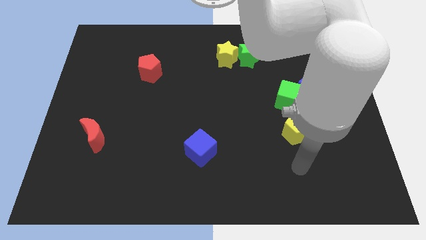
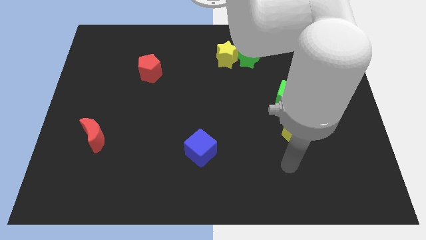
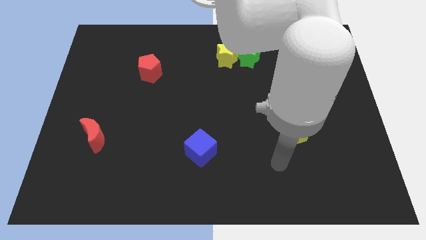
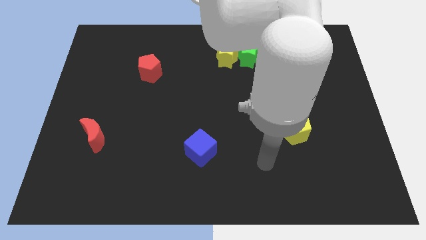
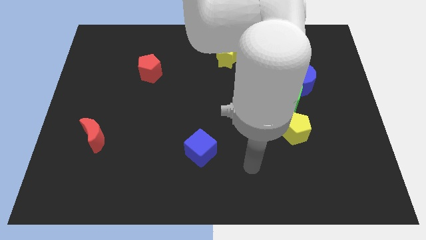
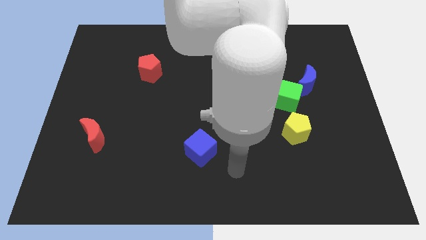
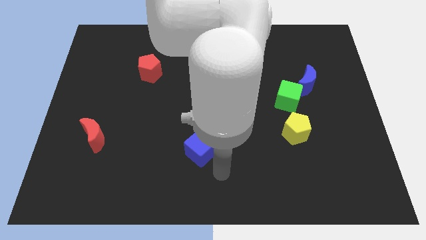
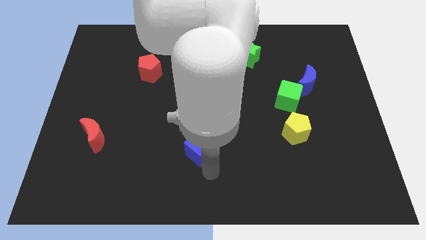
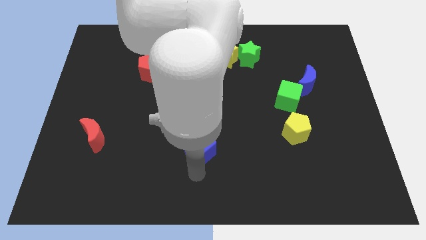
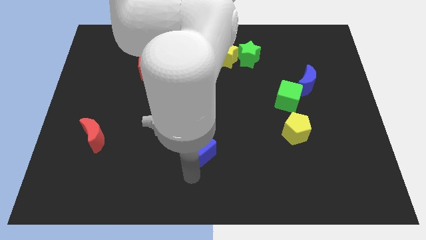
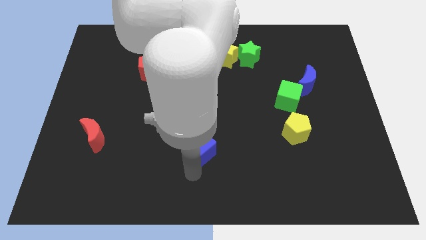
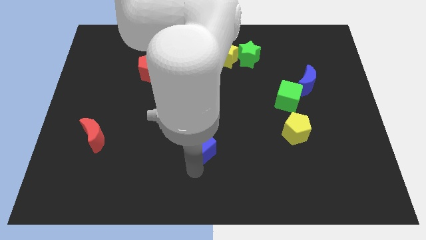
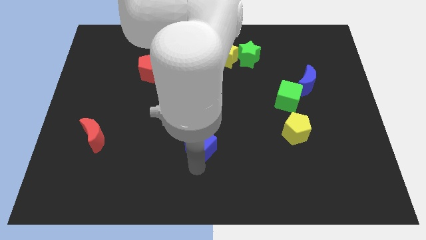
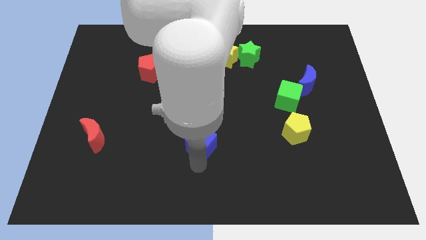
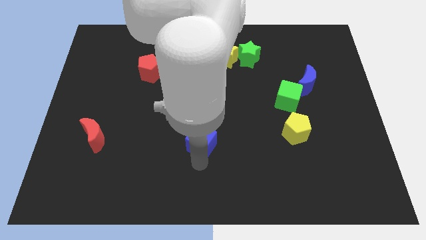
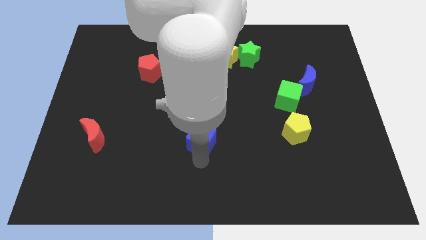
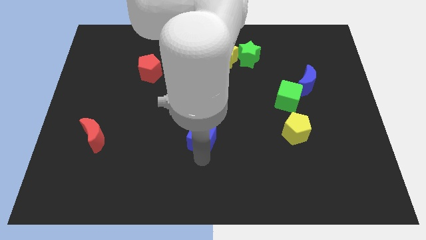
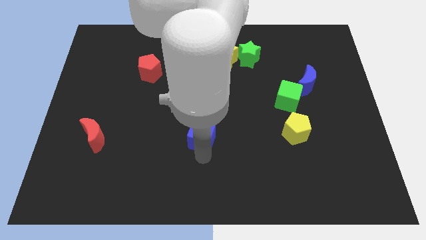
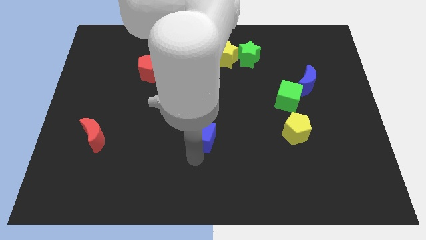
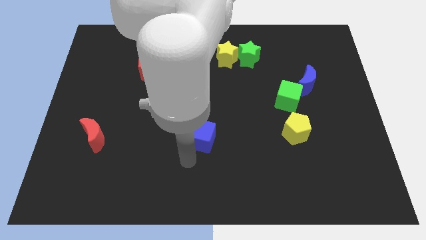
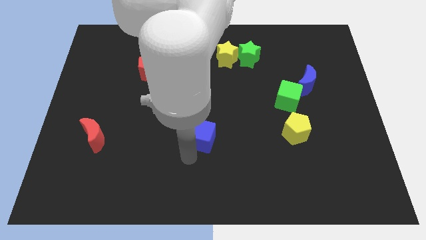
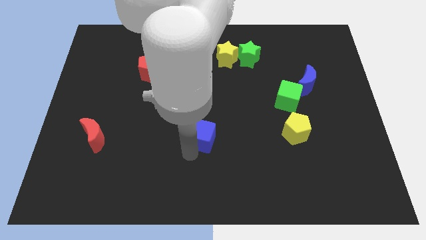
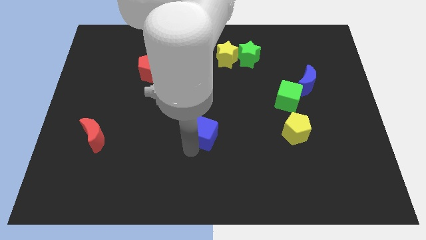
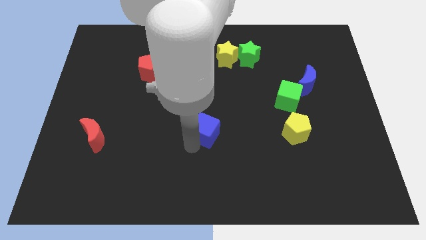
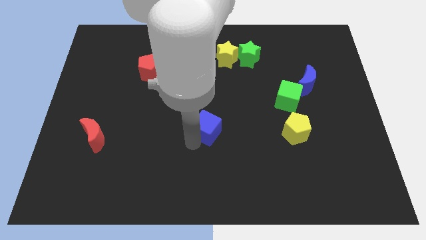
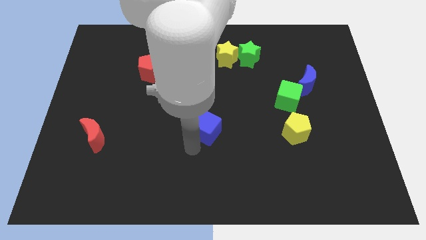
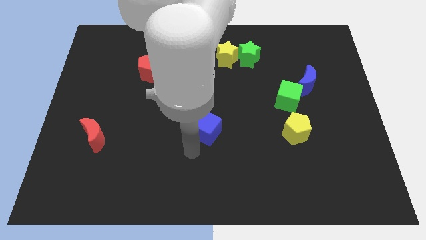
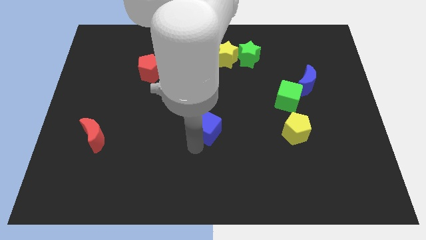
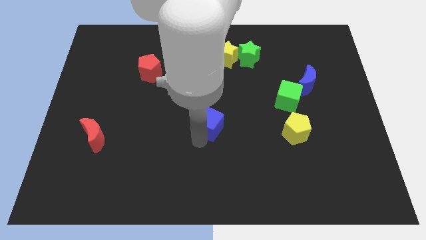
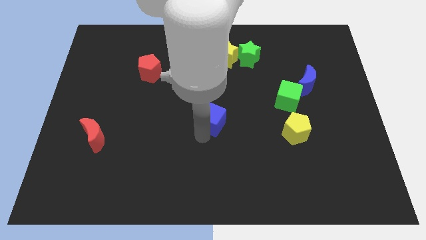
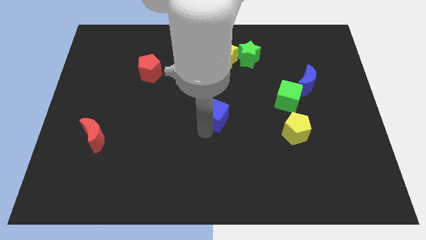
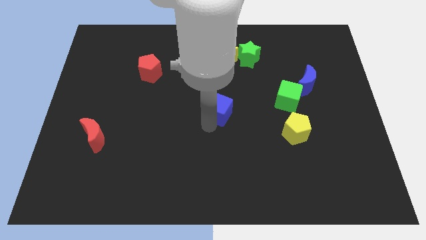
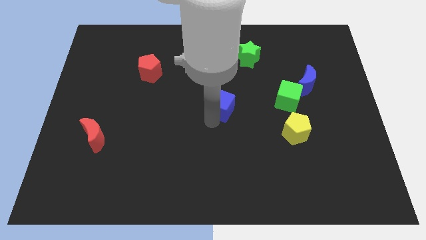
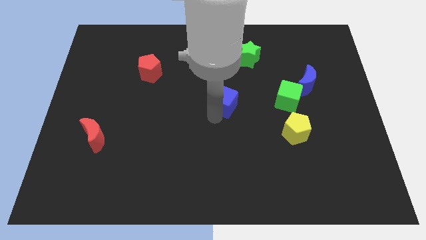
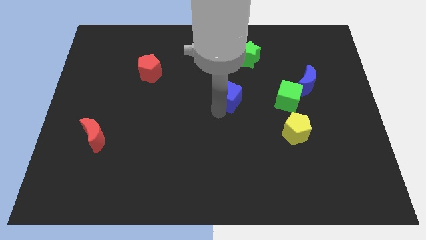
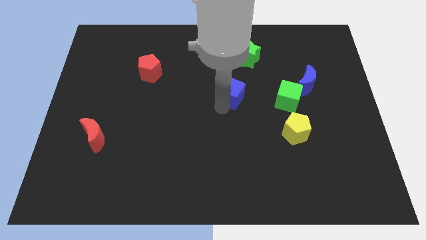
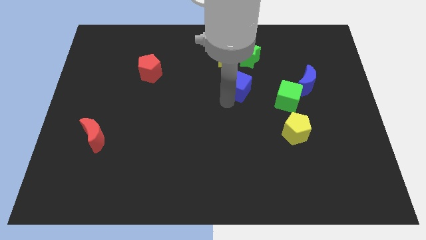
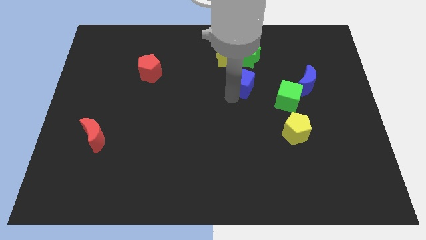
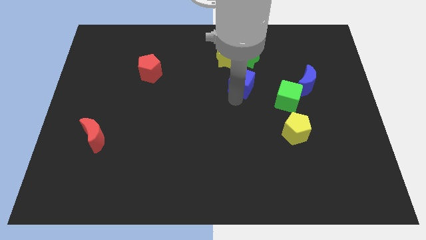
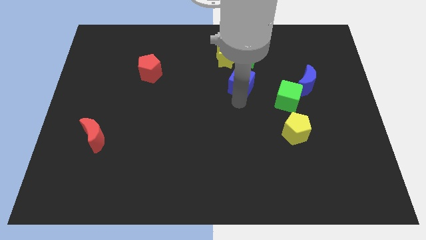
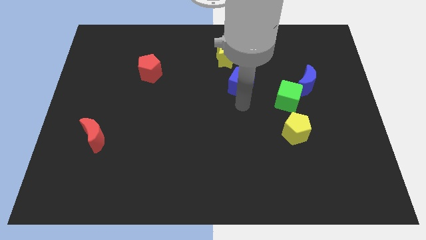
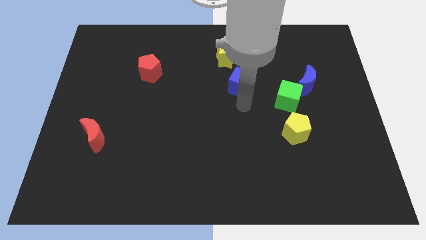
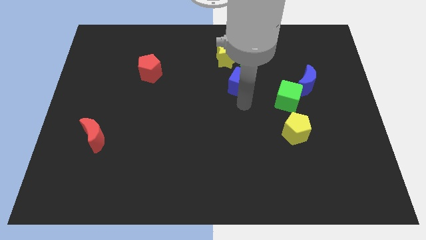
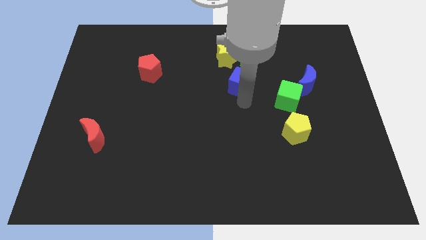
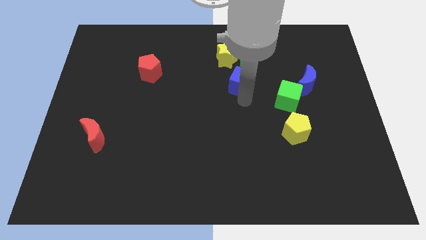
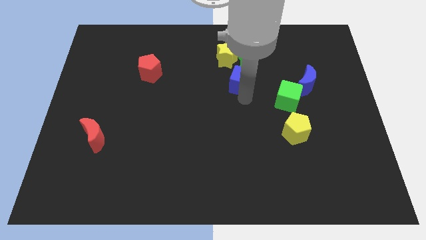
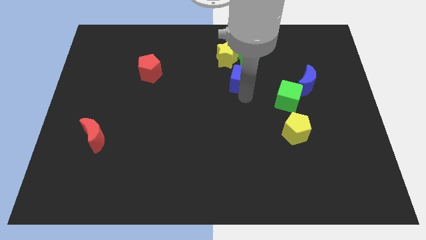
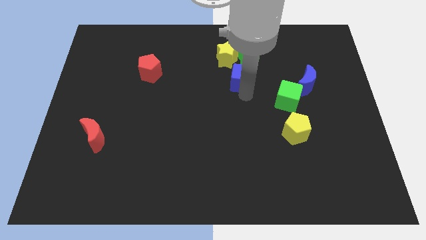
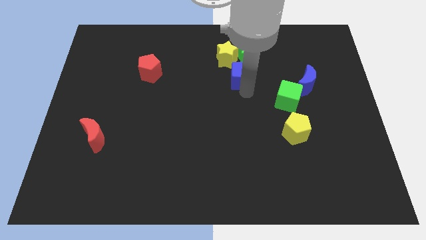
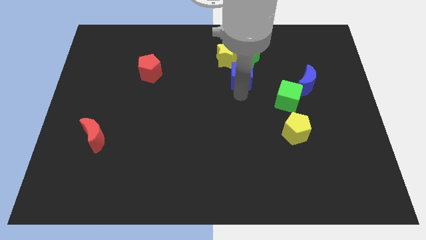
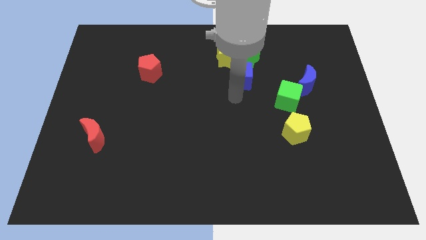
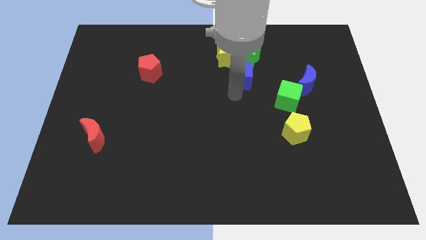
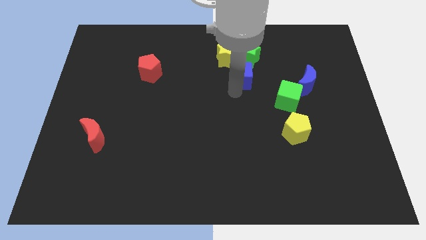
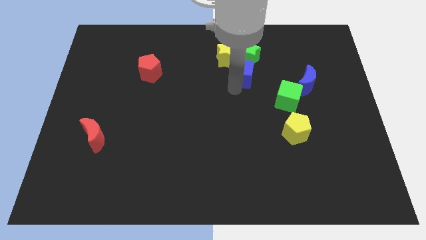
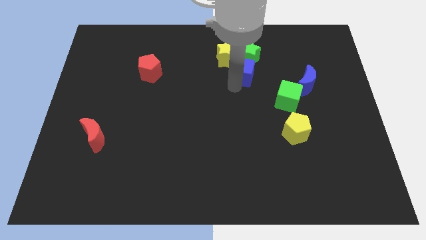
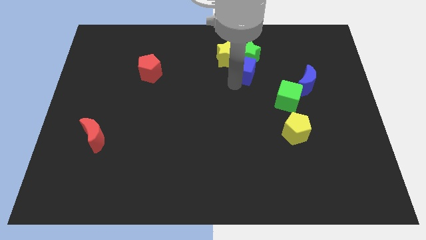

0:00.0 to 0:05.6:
put the blue cube next to the green star

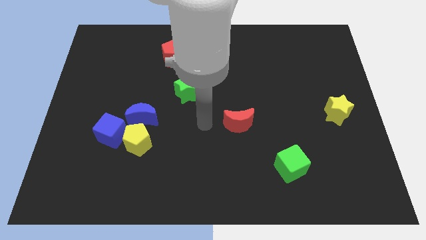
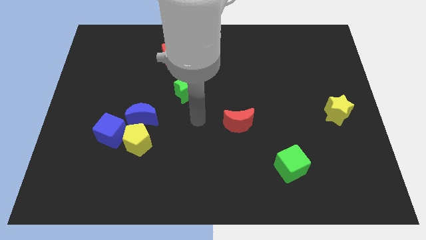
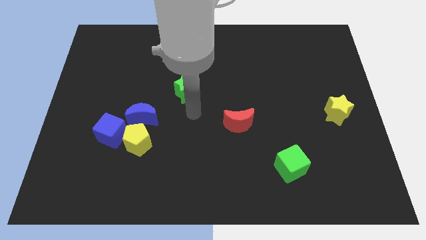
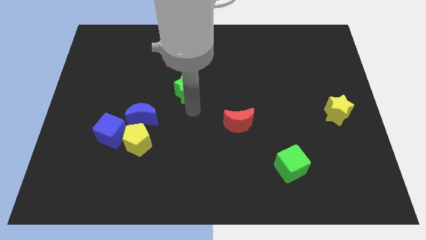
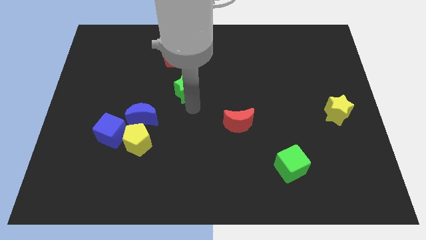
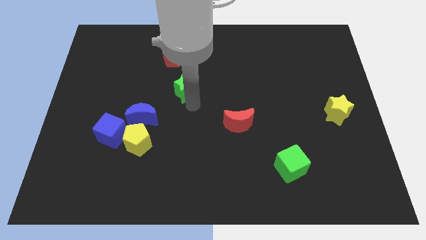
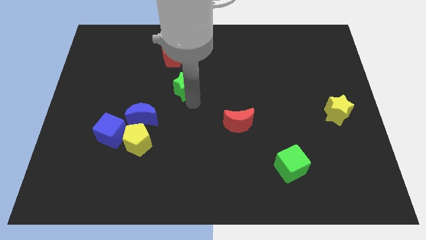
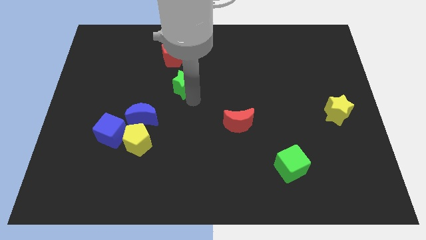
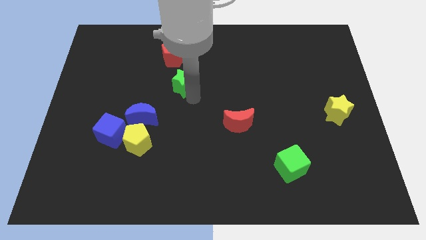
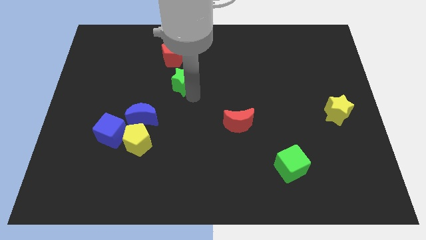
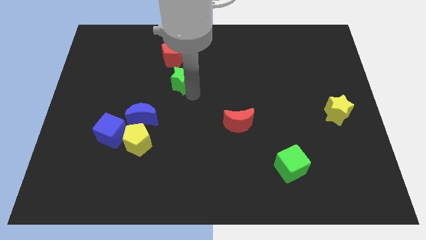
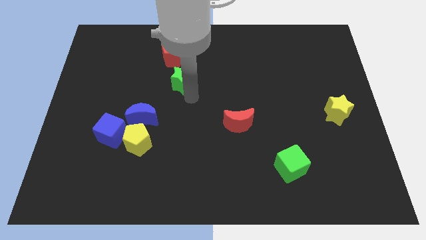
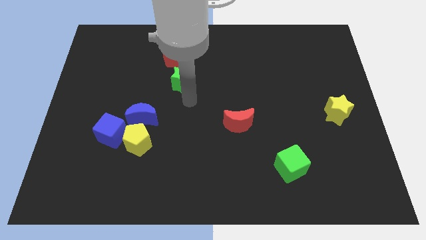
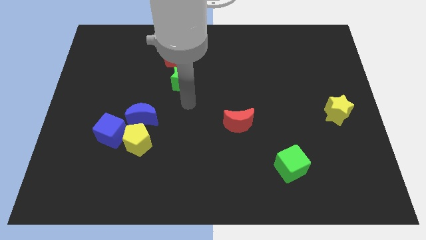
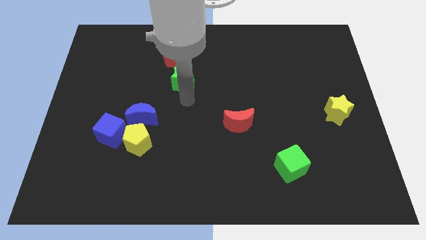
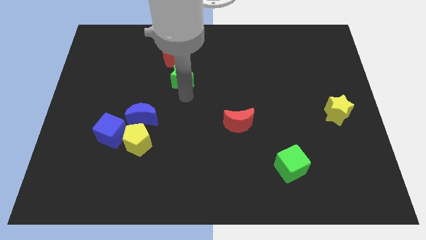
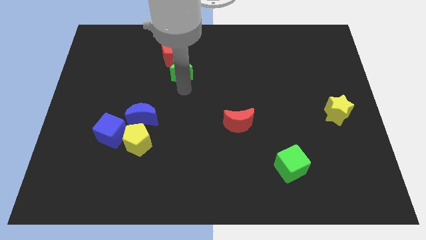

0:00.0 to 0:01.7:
move the green star towards the red pentagon
